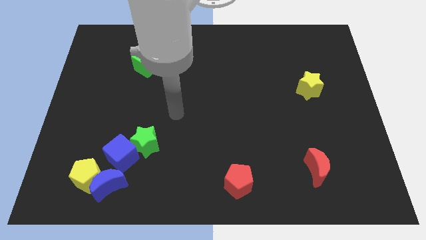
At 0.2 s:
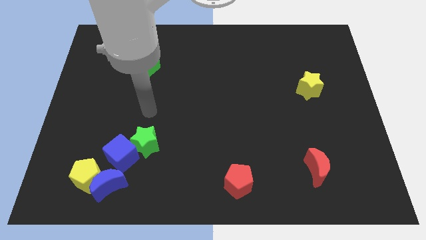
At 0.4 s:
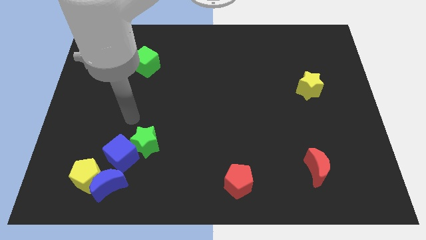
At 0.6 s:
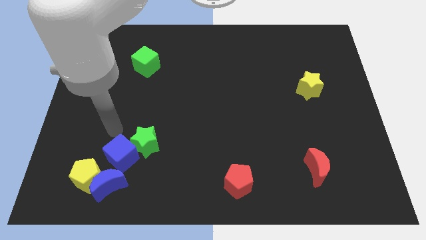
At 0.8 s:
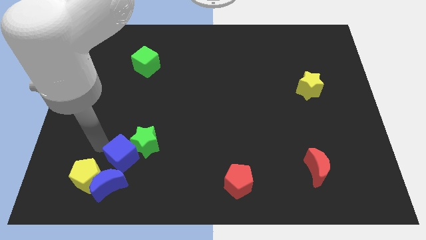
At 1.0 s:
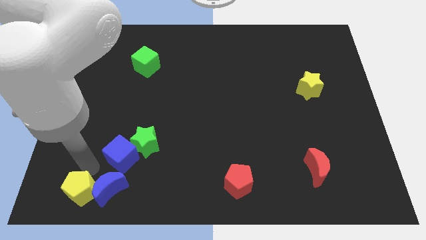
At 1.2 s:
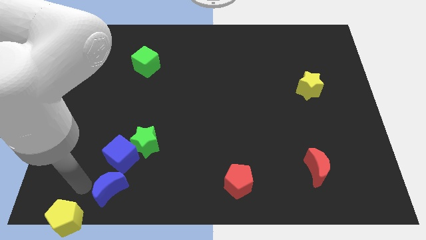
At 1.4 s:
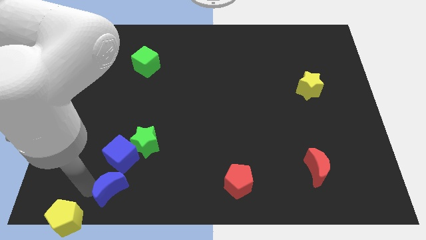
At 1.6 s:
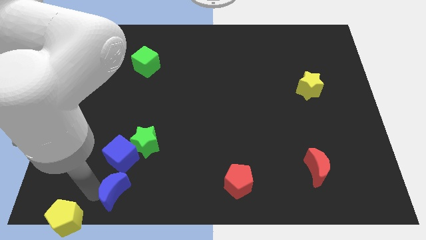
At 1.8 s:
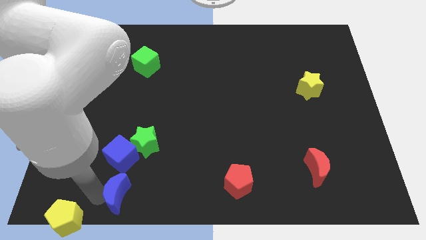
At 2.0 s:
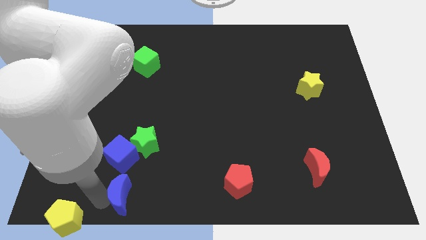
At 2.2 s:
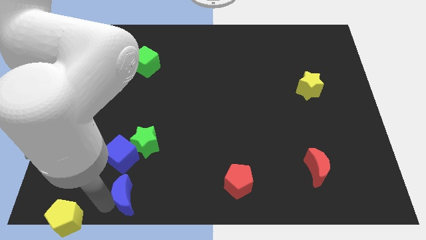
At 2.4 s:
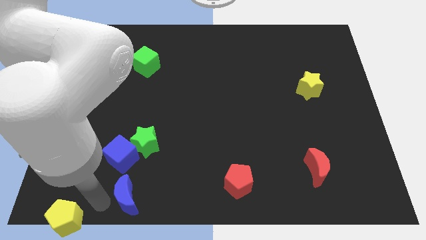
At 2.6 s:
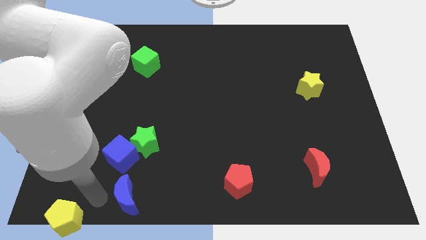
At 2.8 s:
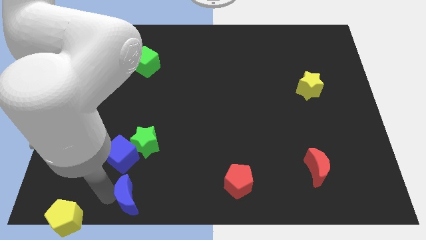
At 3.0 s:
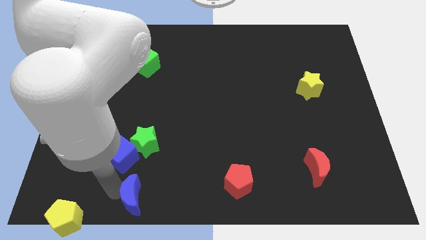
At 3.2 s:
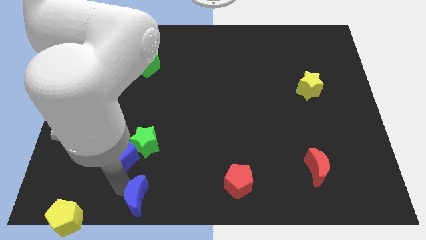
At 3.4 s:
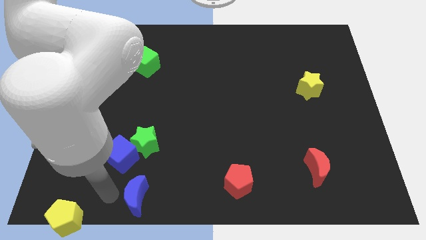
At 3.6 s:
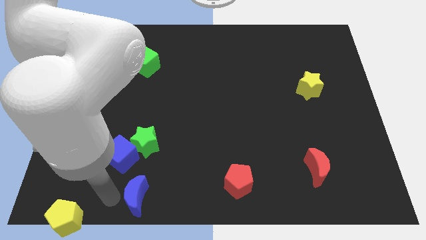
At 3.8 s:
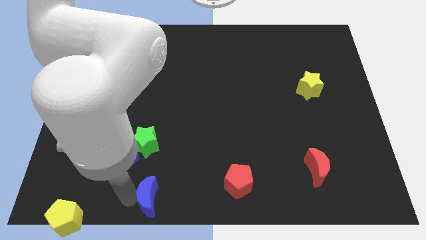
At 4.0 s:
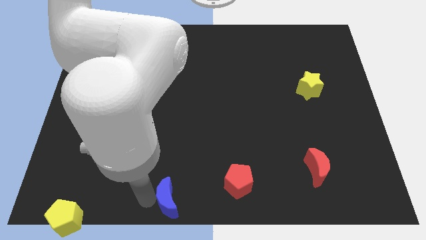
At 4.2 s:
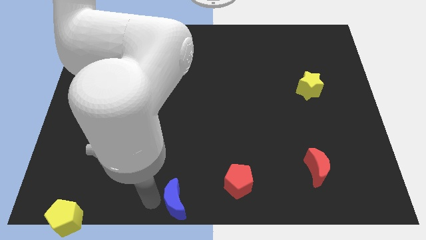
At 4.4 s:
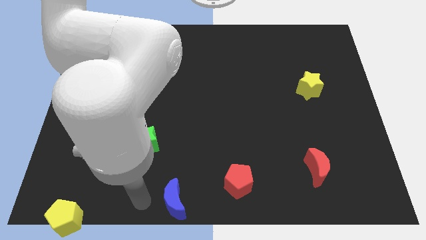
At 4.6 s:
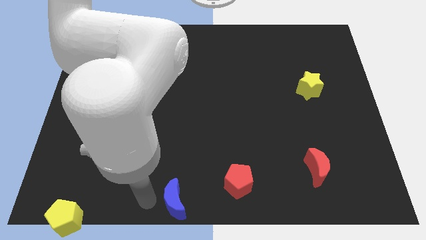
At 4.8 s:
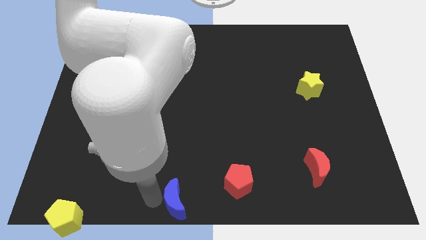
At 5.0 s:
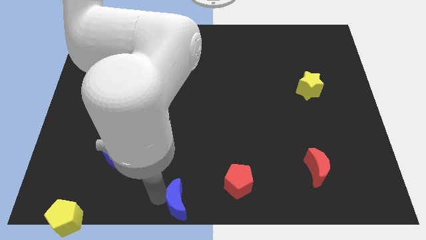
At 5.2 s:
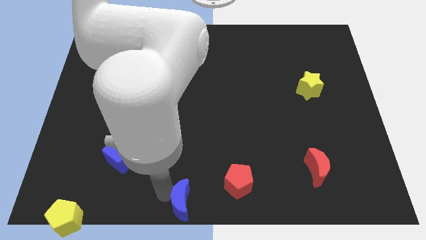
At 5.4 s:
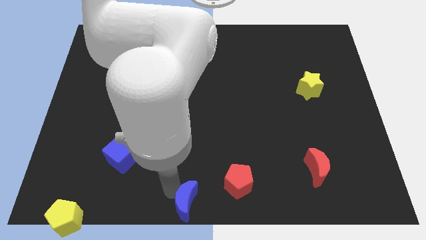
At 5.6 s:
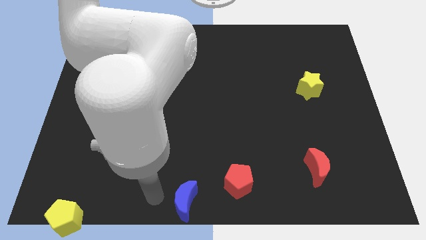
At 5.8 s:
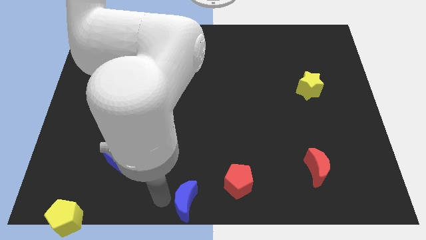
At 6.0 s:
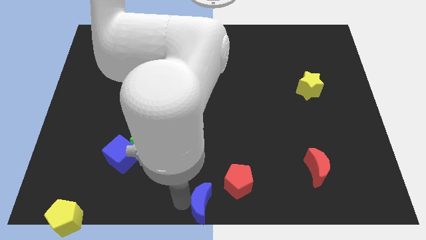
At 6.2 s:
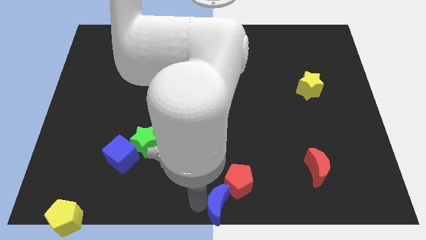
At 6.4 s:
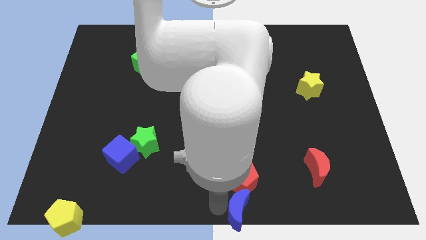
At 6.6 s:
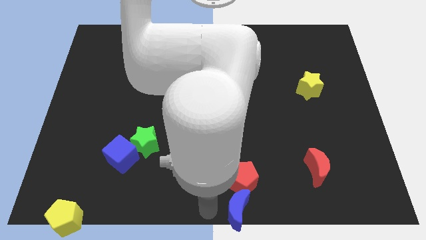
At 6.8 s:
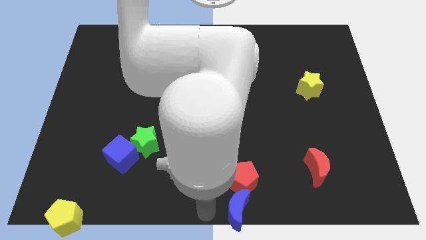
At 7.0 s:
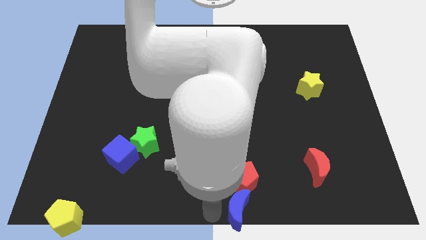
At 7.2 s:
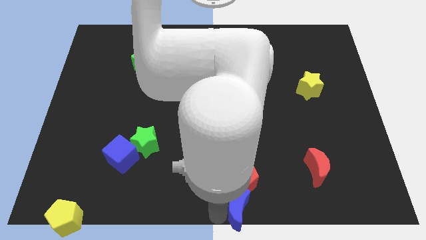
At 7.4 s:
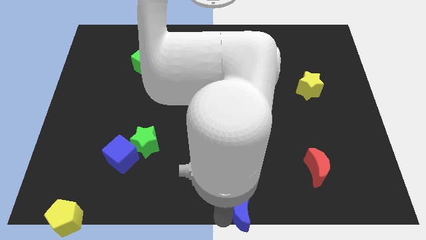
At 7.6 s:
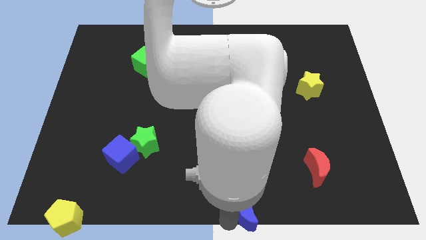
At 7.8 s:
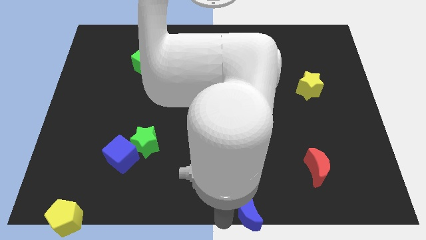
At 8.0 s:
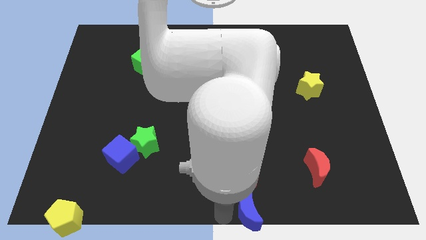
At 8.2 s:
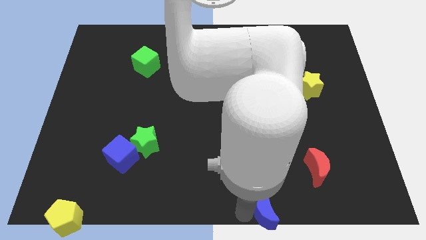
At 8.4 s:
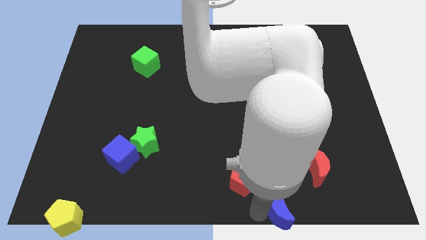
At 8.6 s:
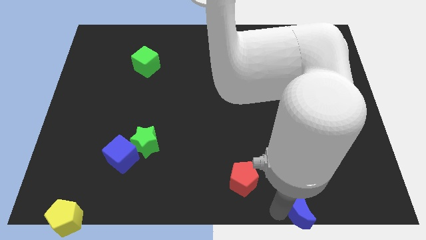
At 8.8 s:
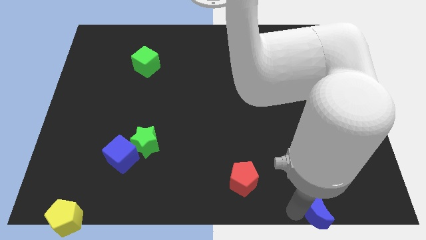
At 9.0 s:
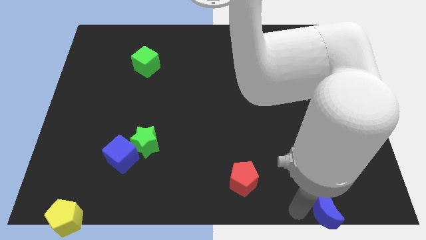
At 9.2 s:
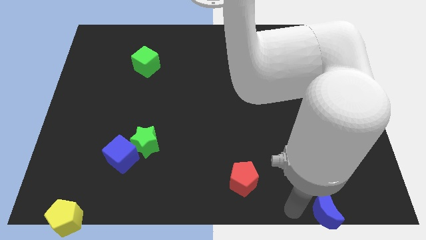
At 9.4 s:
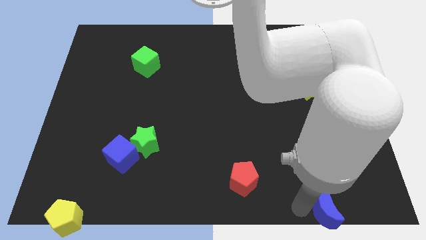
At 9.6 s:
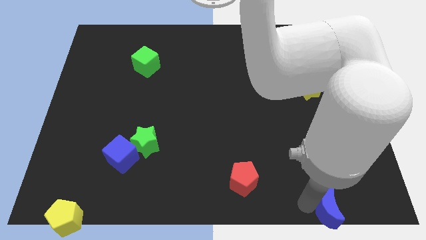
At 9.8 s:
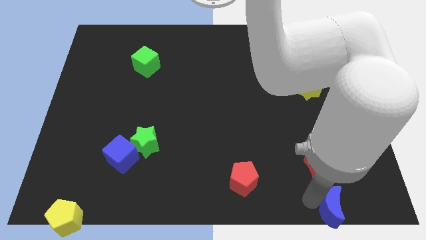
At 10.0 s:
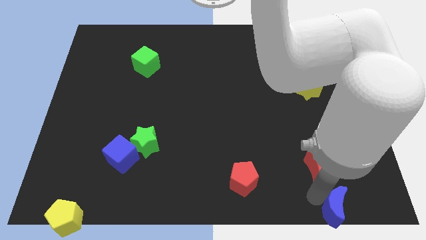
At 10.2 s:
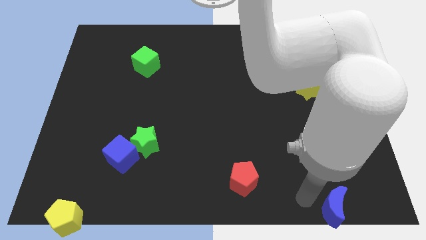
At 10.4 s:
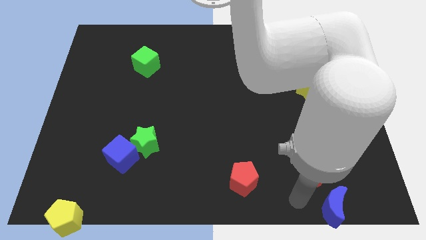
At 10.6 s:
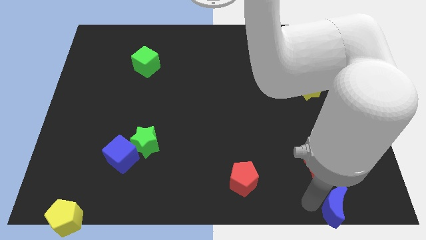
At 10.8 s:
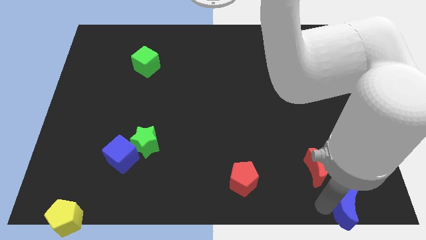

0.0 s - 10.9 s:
slide the blue moon to the bottom right of the board

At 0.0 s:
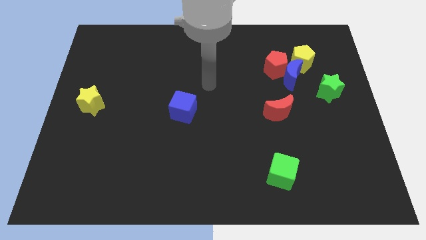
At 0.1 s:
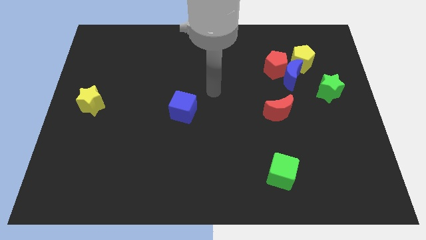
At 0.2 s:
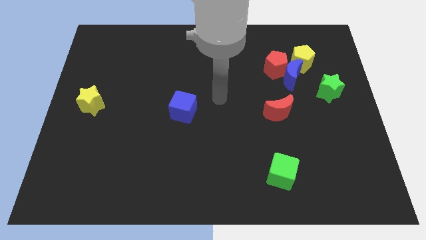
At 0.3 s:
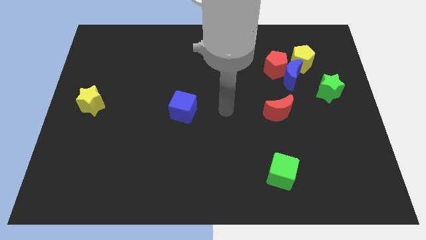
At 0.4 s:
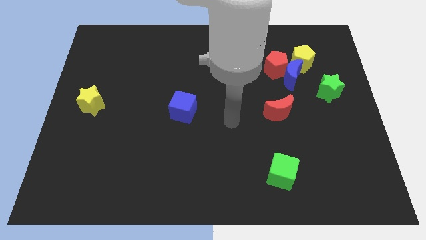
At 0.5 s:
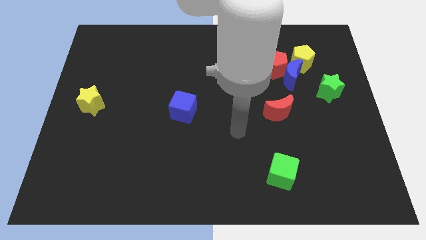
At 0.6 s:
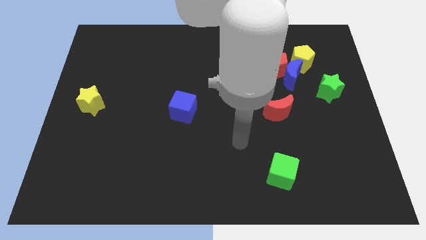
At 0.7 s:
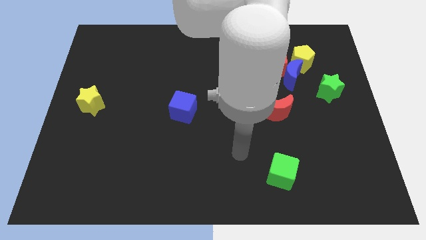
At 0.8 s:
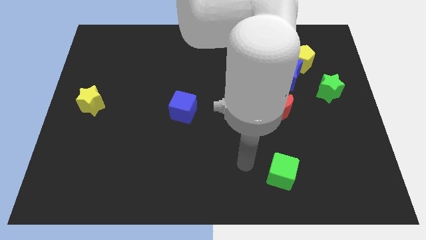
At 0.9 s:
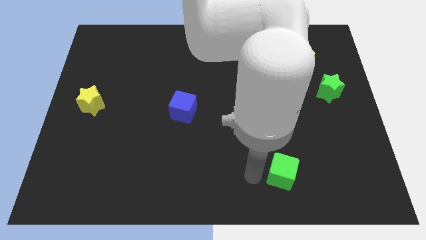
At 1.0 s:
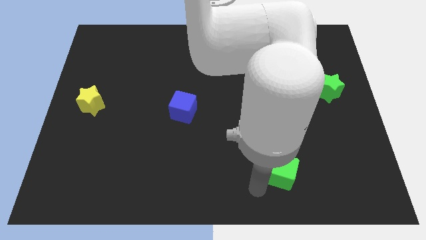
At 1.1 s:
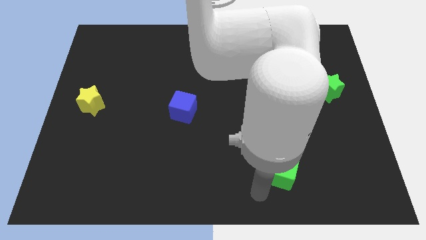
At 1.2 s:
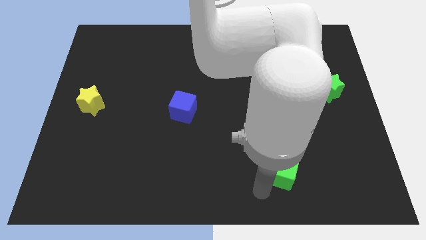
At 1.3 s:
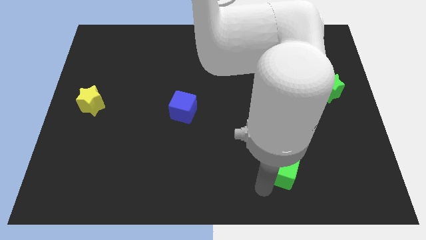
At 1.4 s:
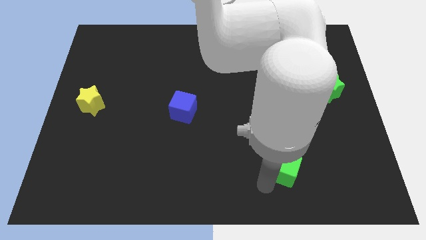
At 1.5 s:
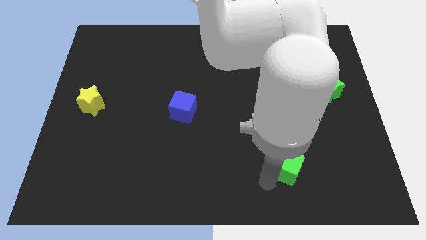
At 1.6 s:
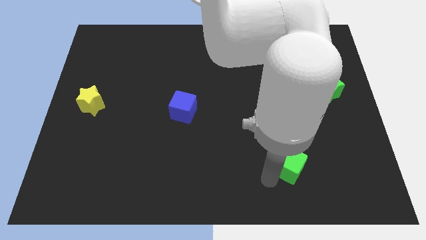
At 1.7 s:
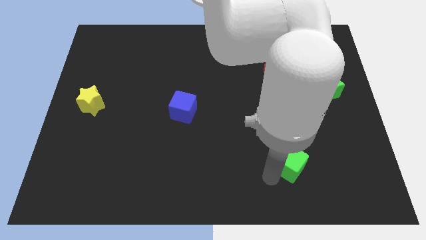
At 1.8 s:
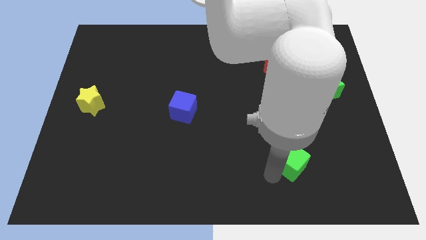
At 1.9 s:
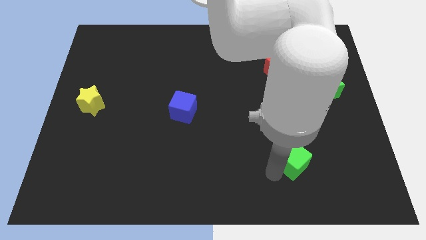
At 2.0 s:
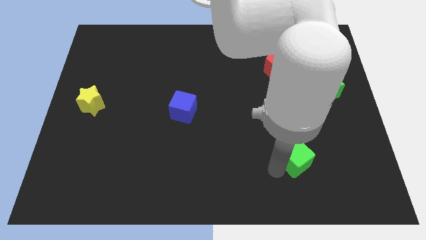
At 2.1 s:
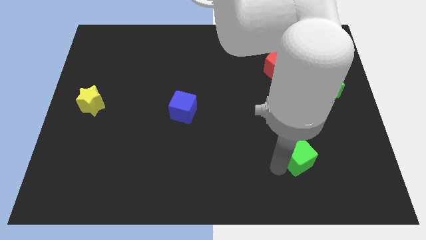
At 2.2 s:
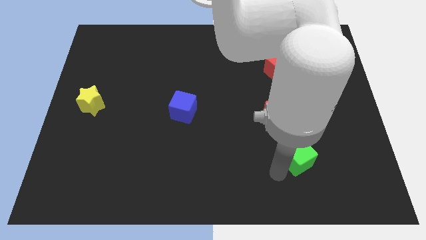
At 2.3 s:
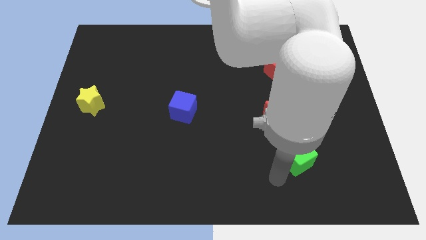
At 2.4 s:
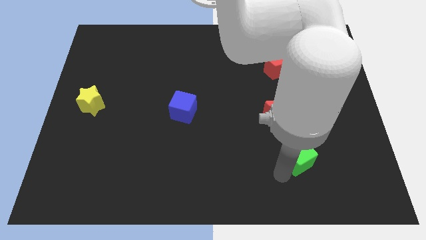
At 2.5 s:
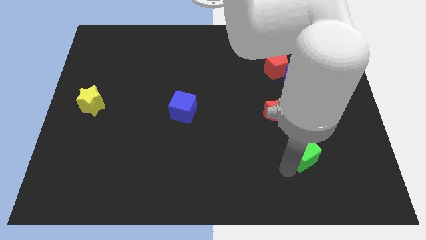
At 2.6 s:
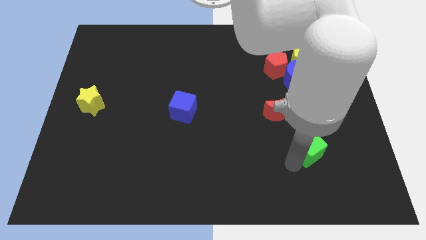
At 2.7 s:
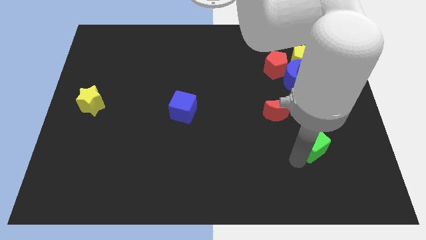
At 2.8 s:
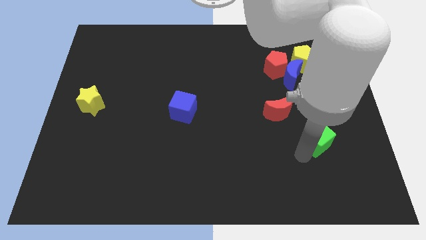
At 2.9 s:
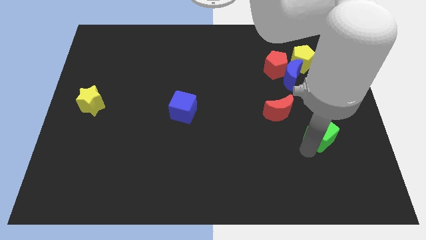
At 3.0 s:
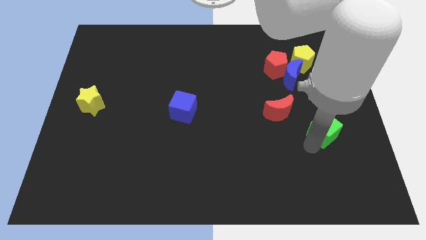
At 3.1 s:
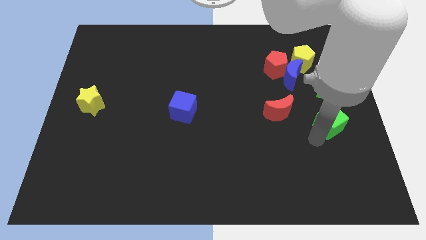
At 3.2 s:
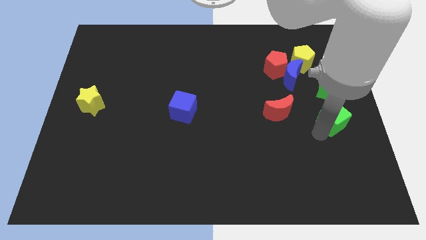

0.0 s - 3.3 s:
slide the green cube to the center right
